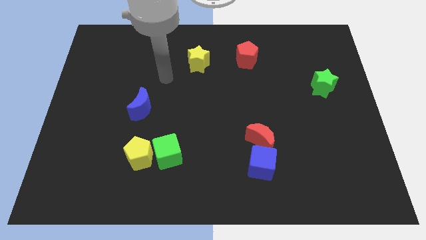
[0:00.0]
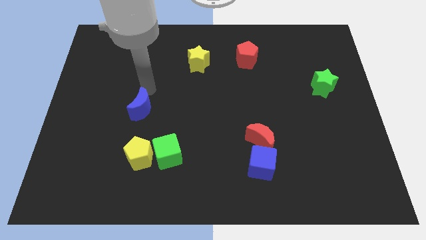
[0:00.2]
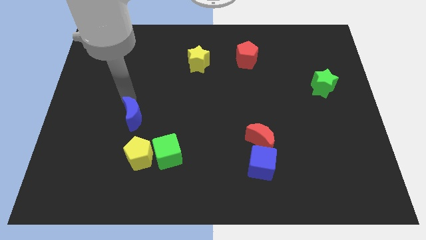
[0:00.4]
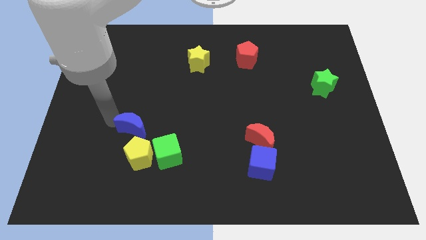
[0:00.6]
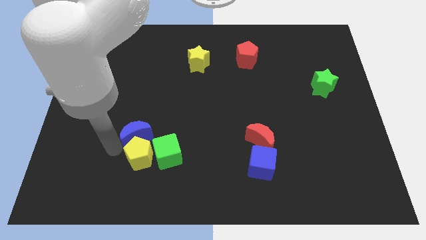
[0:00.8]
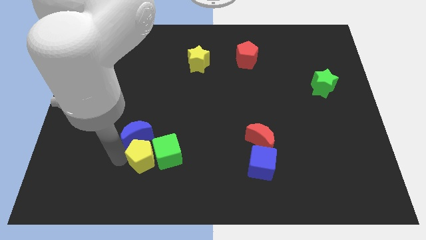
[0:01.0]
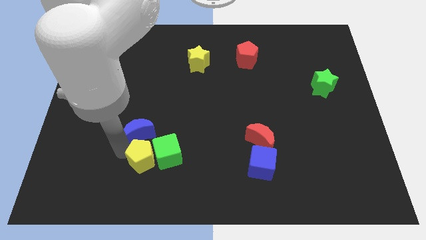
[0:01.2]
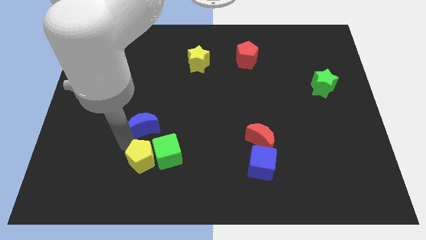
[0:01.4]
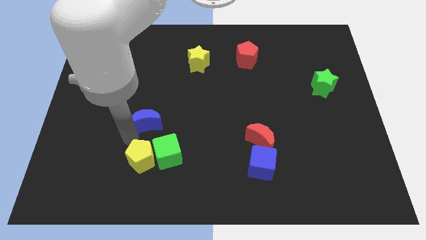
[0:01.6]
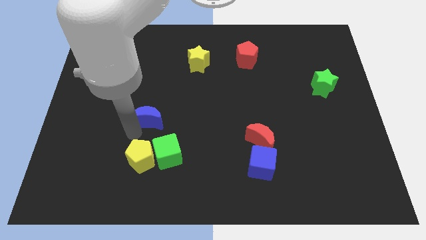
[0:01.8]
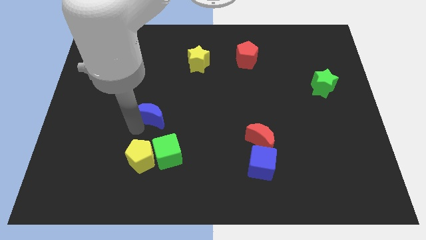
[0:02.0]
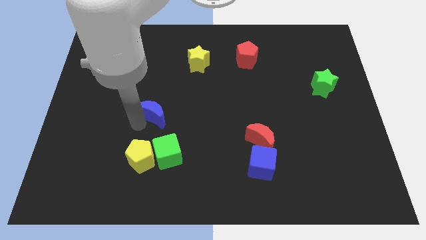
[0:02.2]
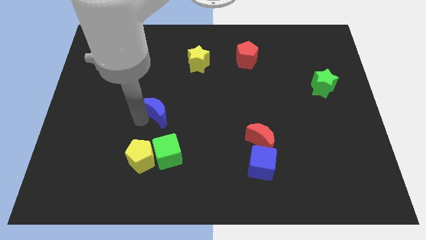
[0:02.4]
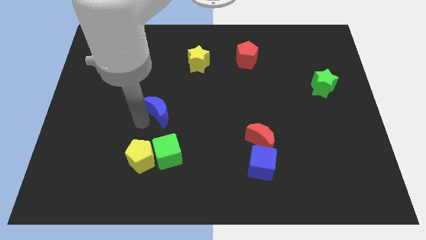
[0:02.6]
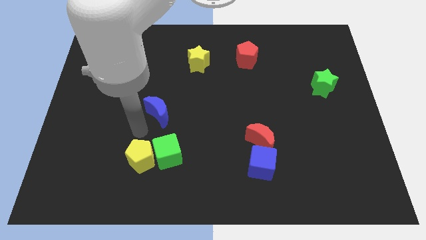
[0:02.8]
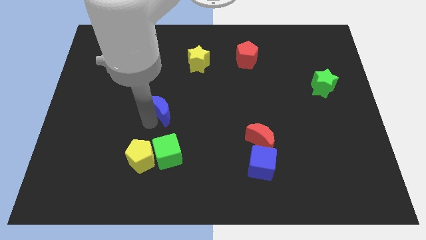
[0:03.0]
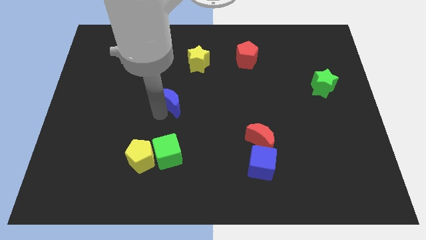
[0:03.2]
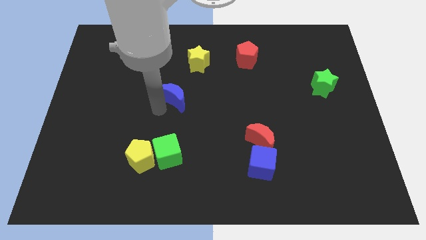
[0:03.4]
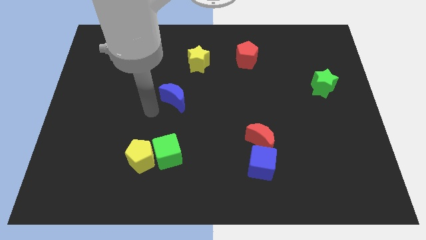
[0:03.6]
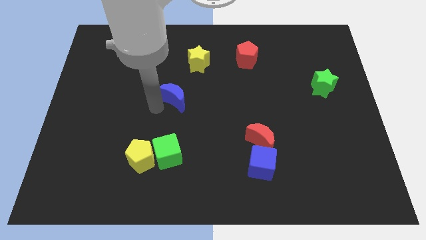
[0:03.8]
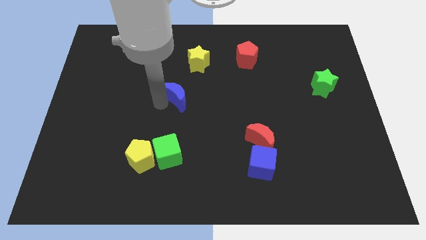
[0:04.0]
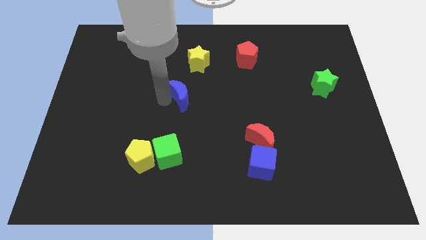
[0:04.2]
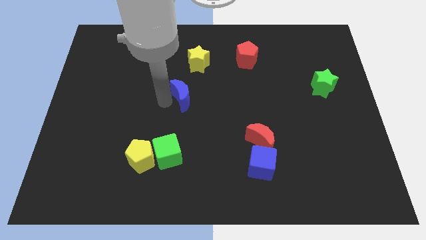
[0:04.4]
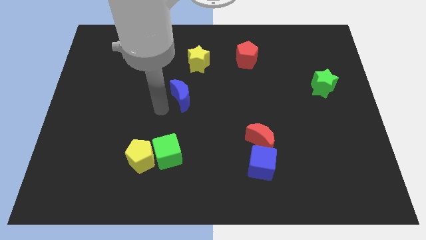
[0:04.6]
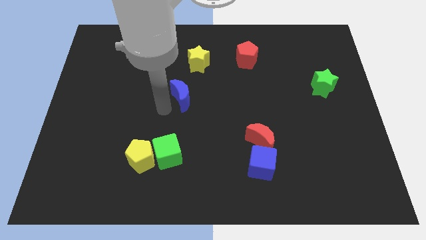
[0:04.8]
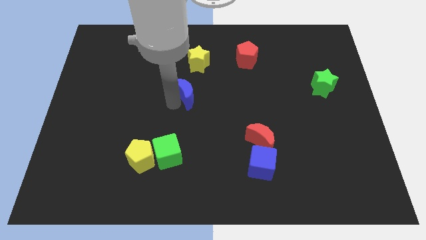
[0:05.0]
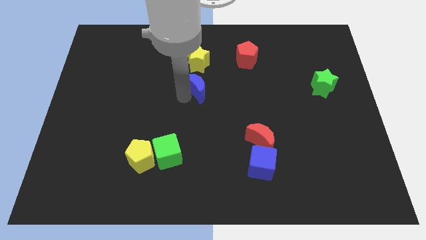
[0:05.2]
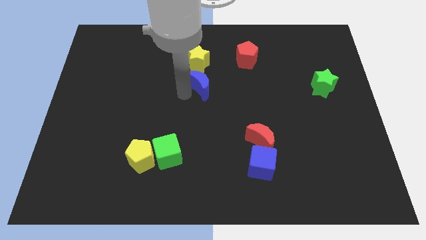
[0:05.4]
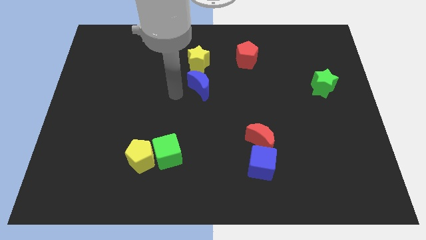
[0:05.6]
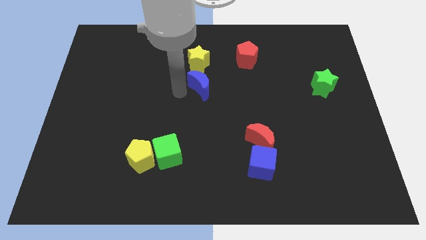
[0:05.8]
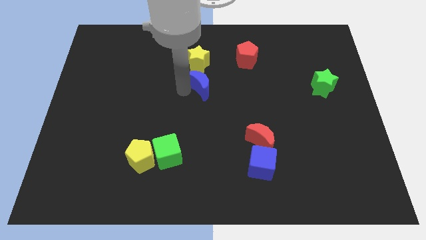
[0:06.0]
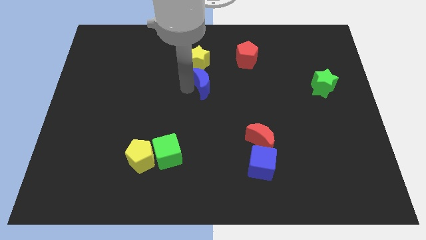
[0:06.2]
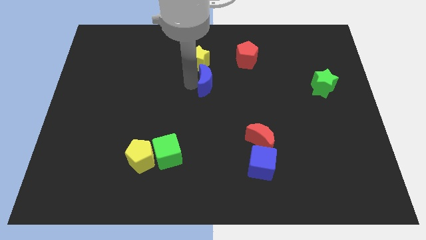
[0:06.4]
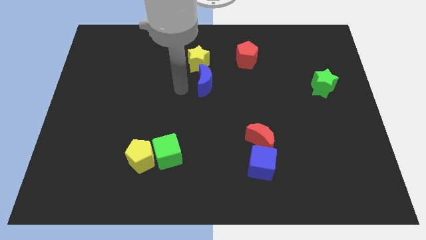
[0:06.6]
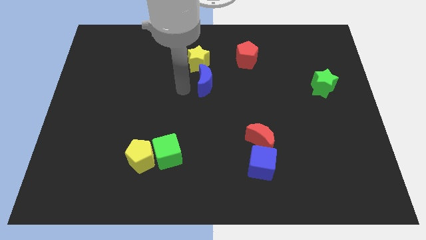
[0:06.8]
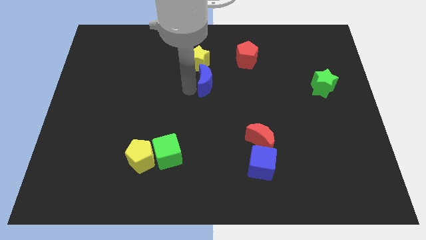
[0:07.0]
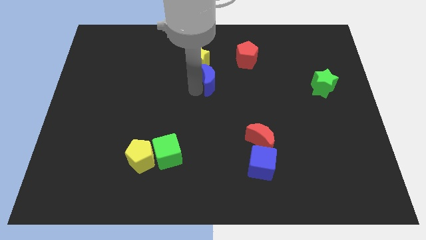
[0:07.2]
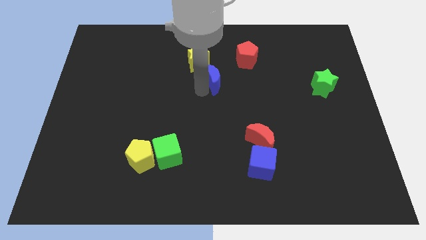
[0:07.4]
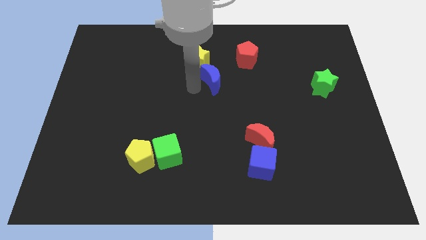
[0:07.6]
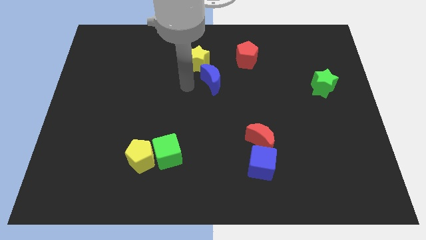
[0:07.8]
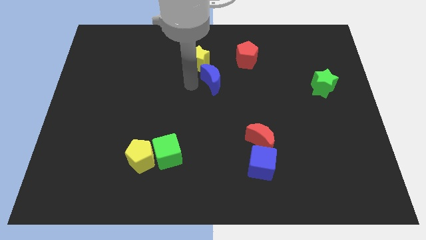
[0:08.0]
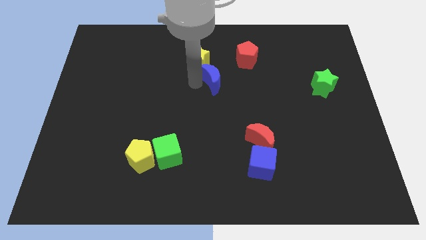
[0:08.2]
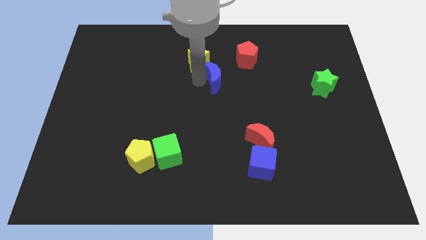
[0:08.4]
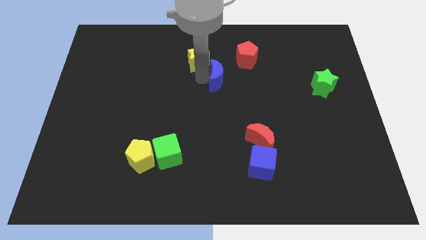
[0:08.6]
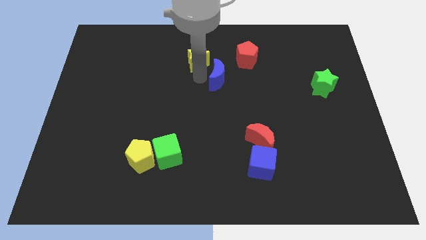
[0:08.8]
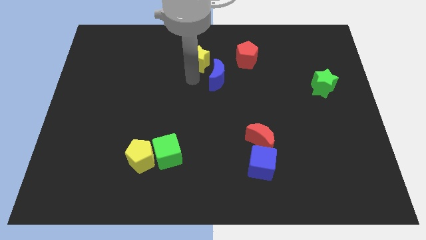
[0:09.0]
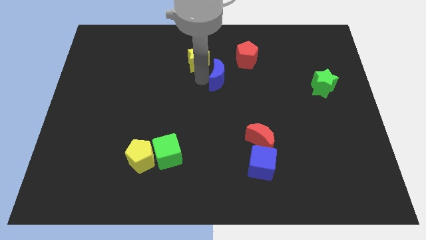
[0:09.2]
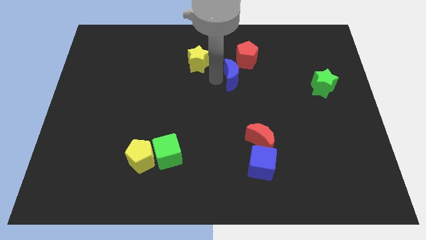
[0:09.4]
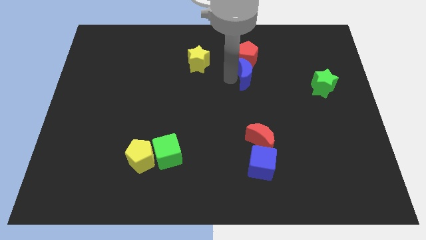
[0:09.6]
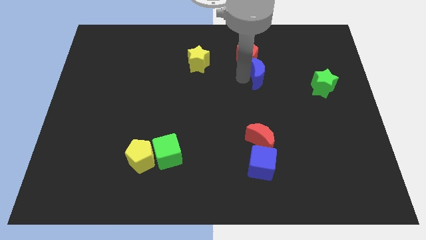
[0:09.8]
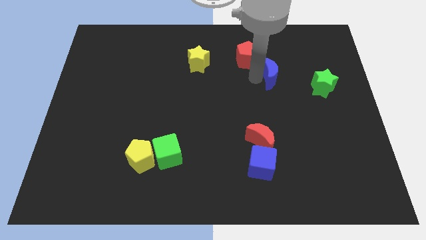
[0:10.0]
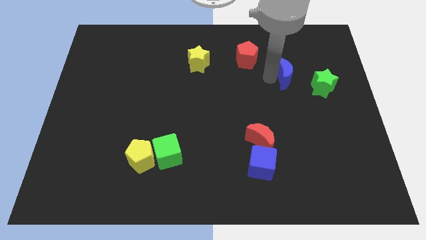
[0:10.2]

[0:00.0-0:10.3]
push the blue moon to the top left of the green star

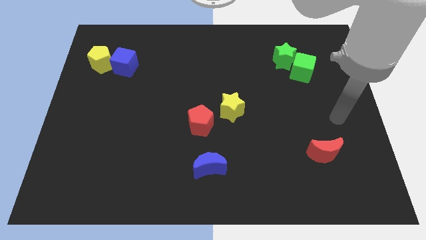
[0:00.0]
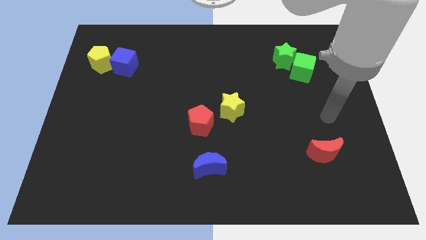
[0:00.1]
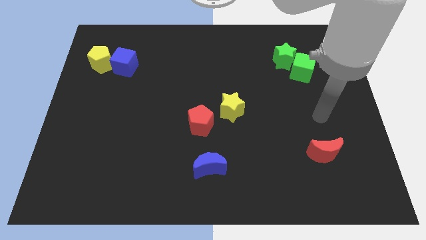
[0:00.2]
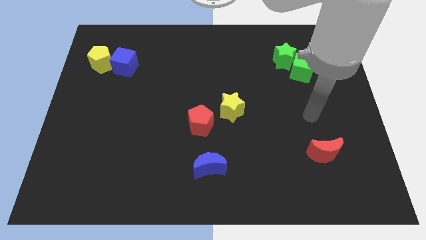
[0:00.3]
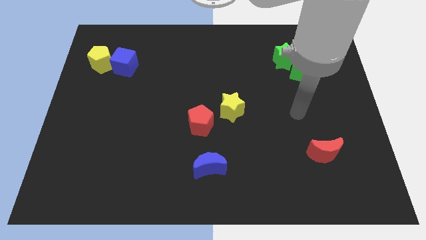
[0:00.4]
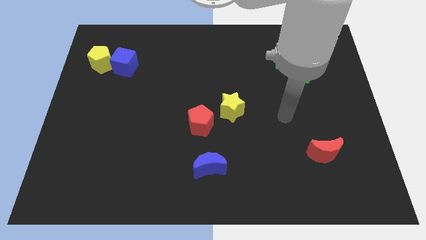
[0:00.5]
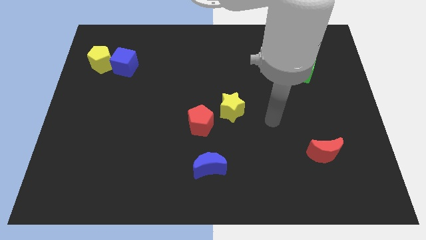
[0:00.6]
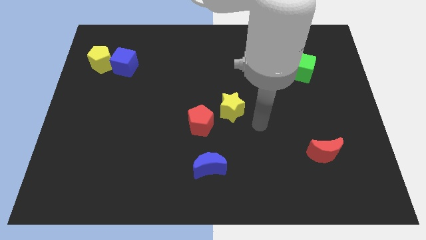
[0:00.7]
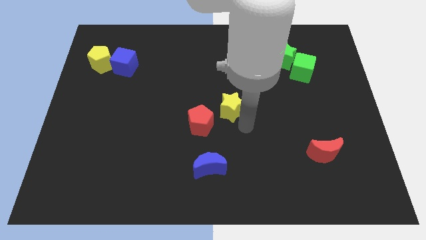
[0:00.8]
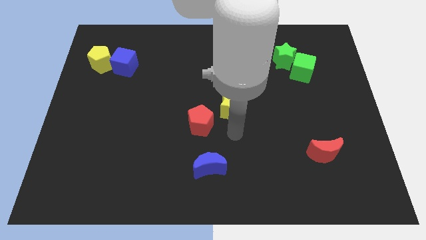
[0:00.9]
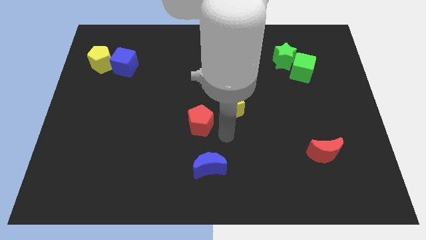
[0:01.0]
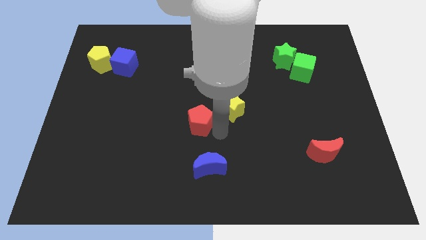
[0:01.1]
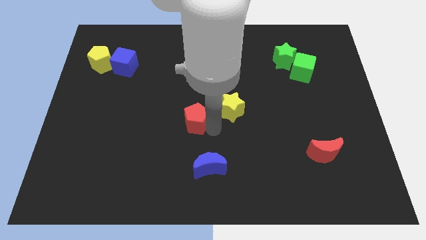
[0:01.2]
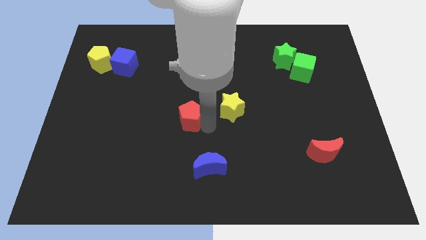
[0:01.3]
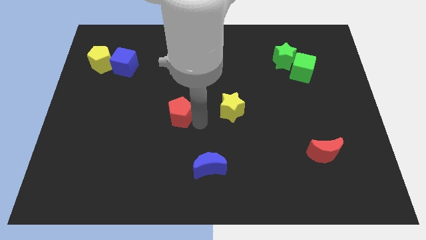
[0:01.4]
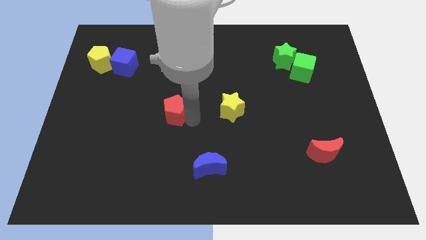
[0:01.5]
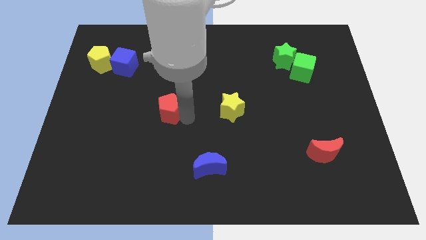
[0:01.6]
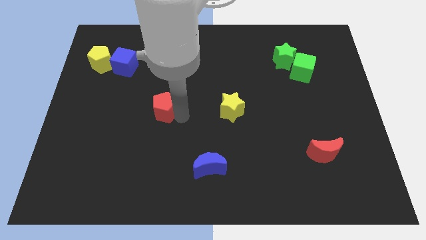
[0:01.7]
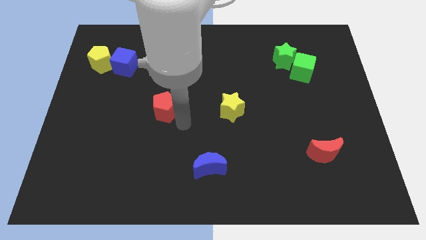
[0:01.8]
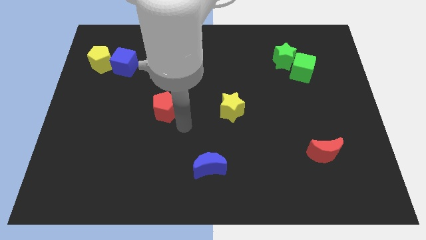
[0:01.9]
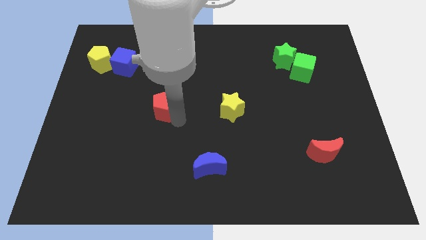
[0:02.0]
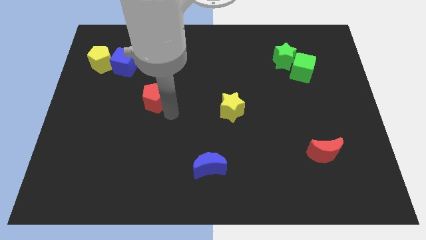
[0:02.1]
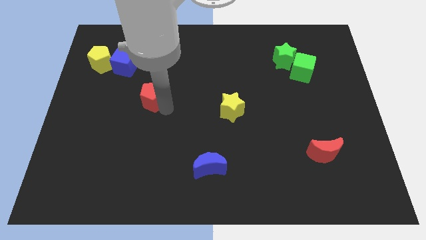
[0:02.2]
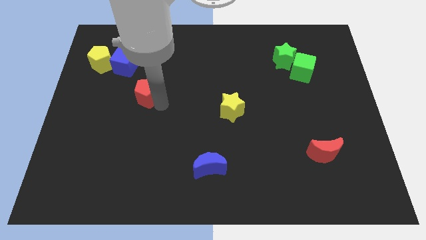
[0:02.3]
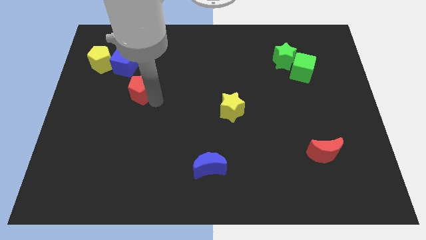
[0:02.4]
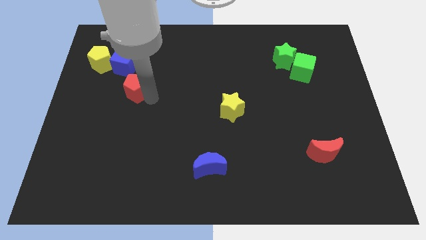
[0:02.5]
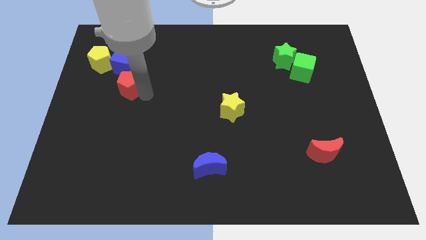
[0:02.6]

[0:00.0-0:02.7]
move the red pentagon to the bottom right side of the yellow pentagon
